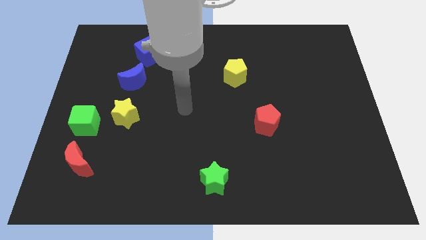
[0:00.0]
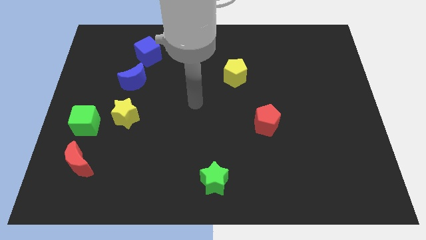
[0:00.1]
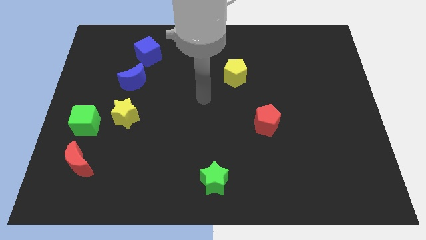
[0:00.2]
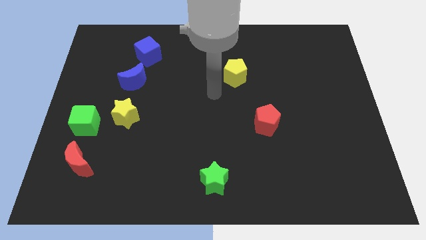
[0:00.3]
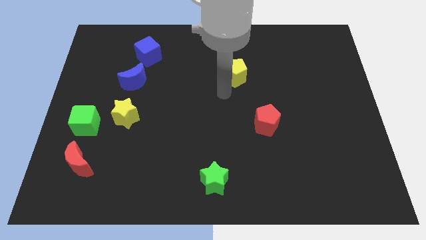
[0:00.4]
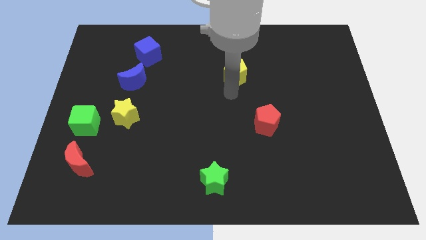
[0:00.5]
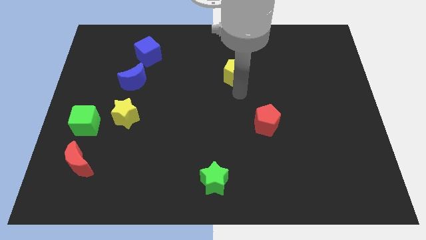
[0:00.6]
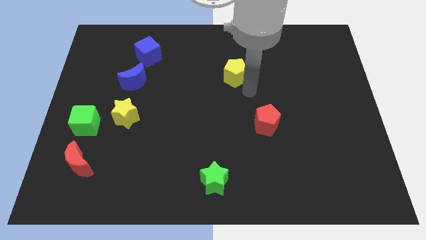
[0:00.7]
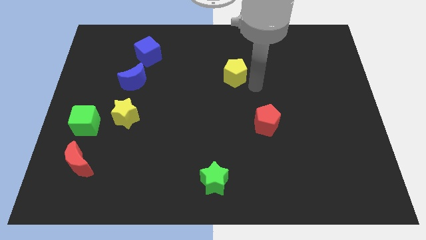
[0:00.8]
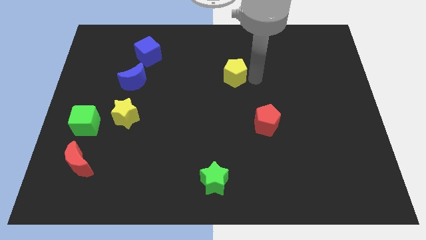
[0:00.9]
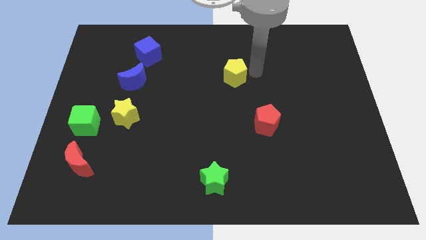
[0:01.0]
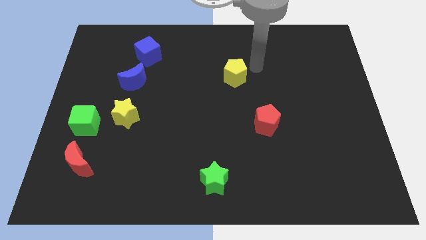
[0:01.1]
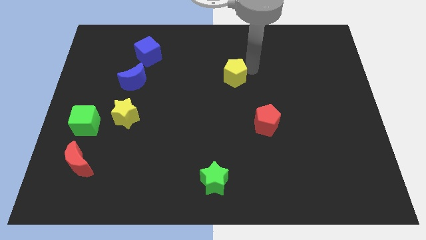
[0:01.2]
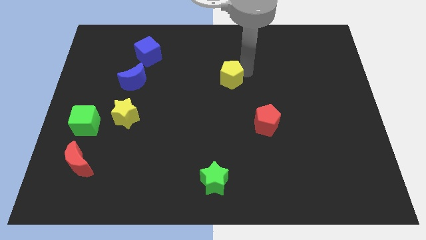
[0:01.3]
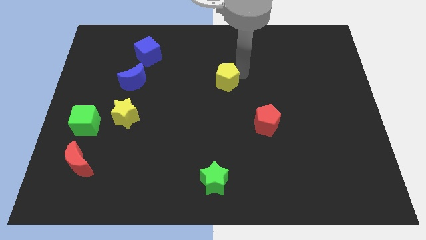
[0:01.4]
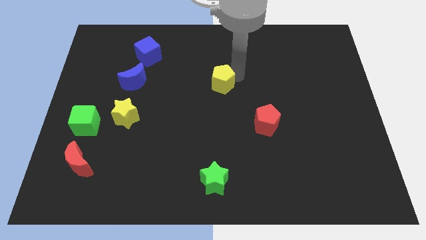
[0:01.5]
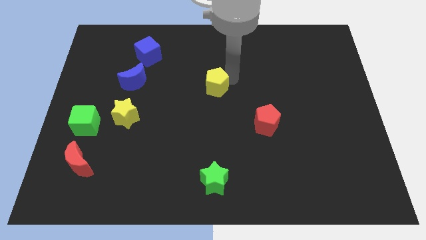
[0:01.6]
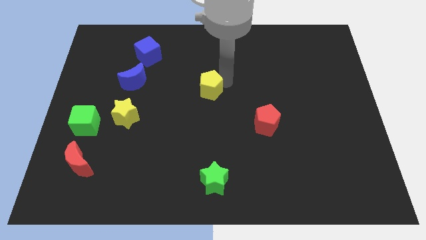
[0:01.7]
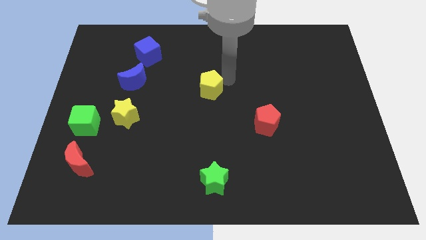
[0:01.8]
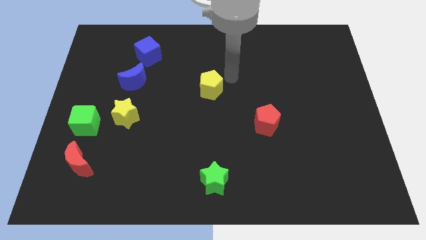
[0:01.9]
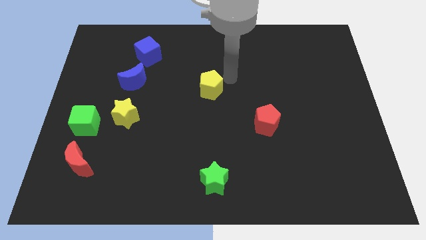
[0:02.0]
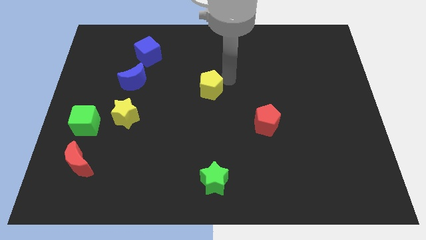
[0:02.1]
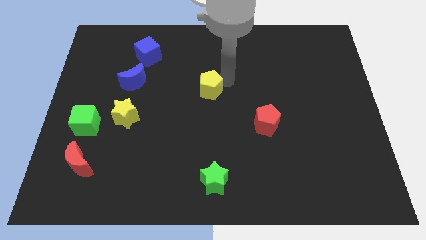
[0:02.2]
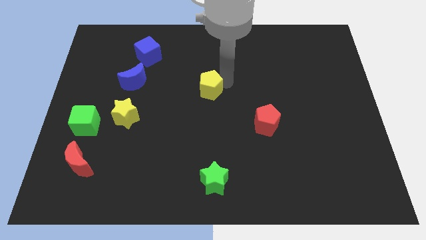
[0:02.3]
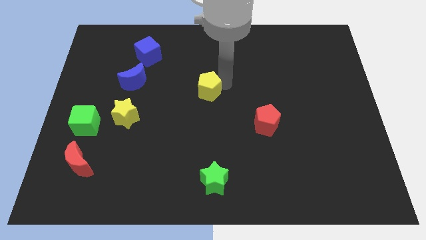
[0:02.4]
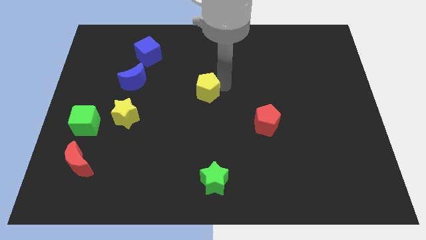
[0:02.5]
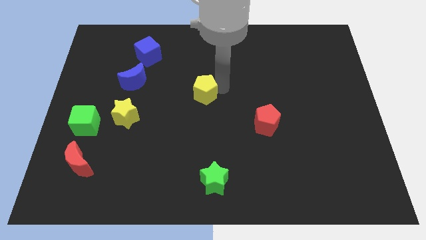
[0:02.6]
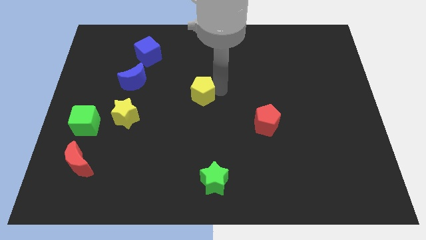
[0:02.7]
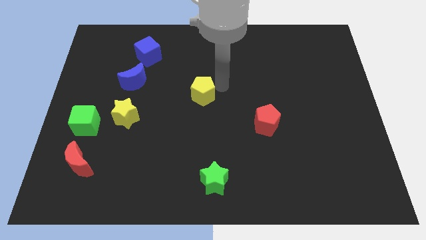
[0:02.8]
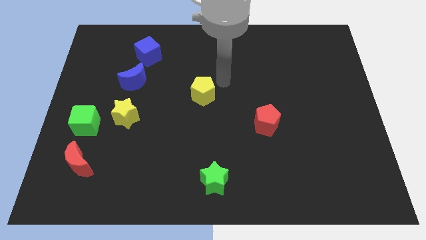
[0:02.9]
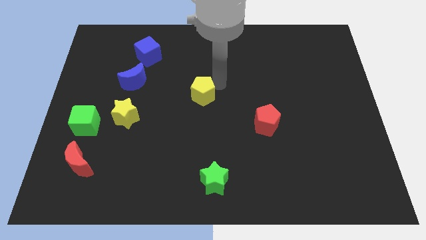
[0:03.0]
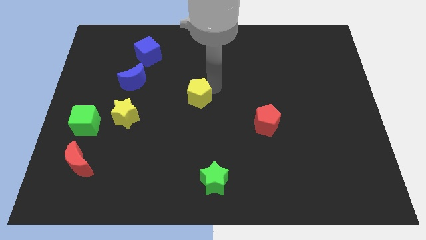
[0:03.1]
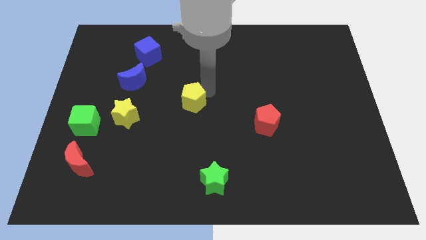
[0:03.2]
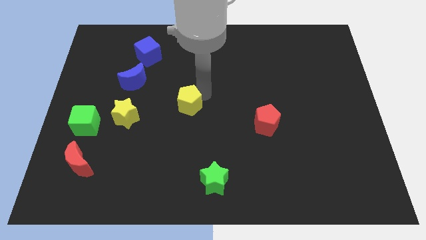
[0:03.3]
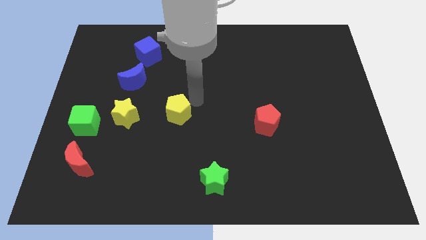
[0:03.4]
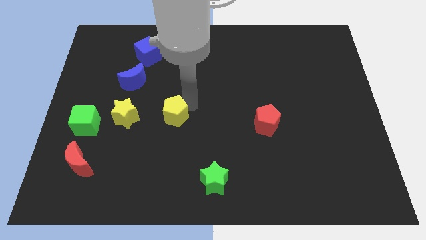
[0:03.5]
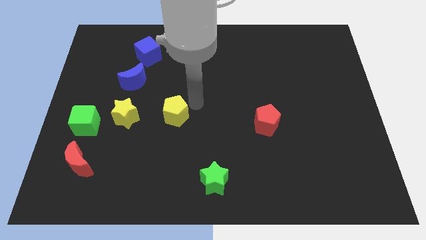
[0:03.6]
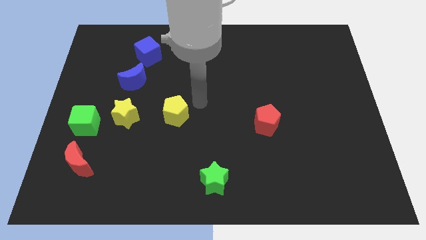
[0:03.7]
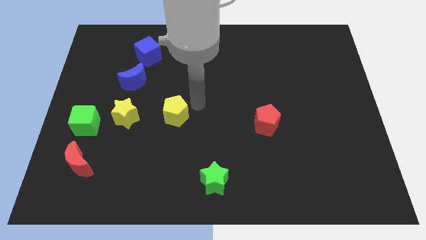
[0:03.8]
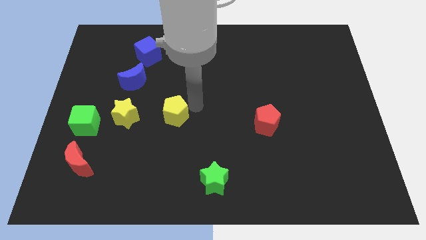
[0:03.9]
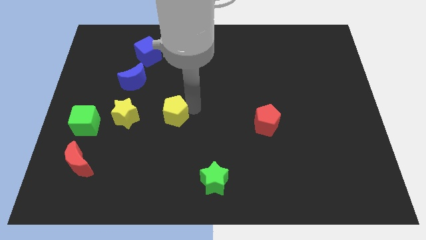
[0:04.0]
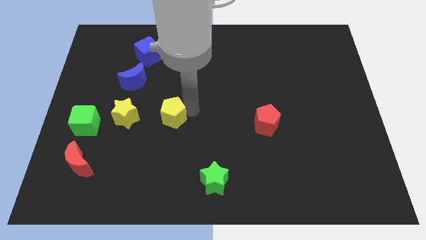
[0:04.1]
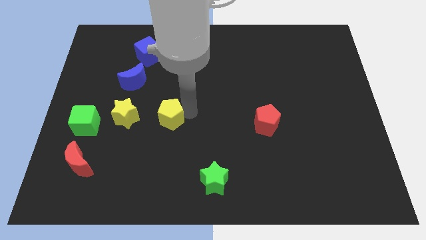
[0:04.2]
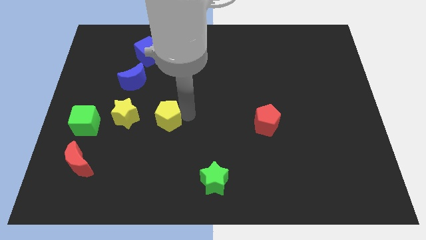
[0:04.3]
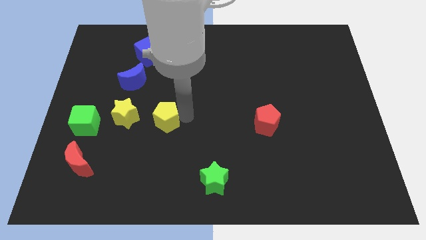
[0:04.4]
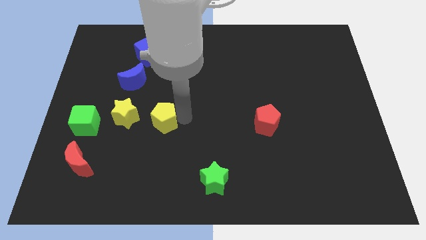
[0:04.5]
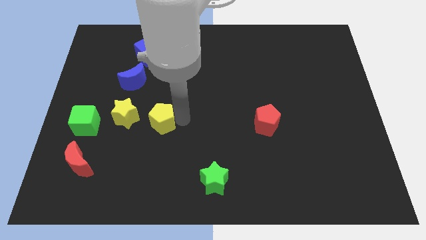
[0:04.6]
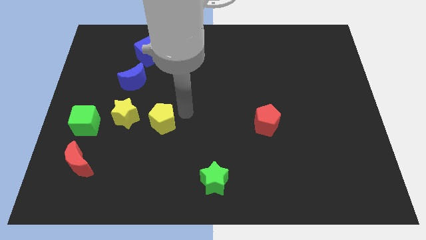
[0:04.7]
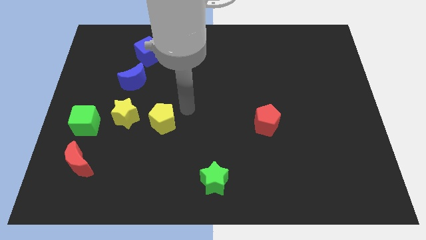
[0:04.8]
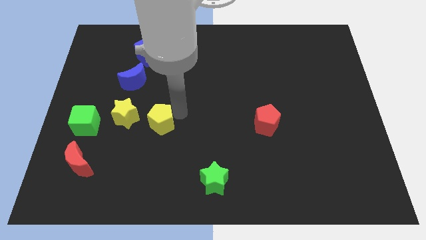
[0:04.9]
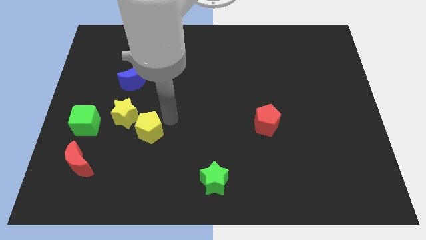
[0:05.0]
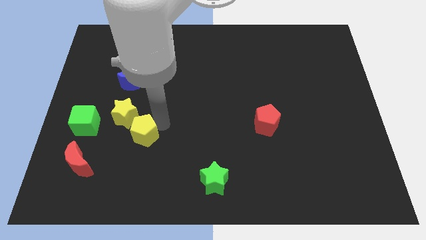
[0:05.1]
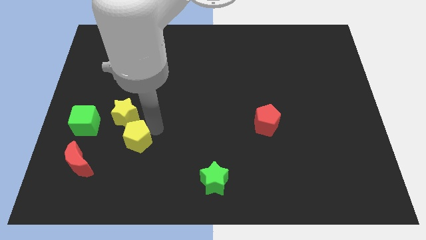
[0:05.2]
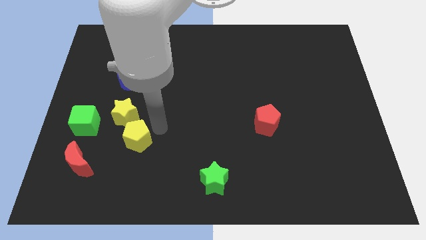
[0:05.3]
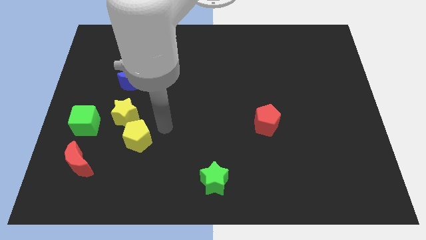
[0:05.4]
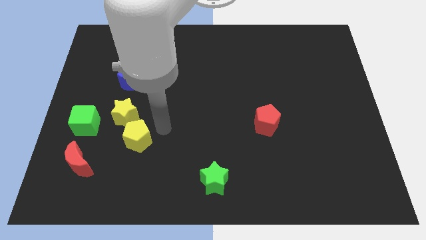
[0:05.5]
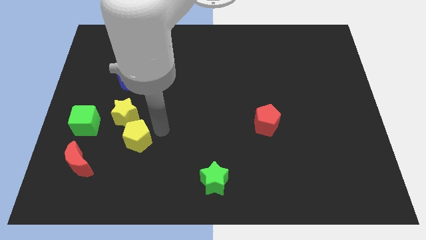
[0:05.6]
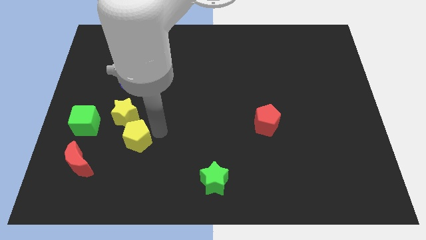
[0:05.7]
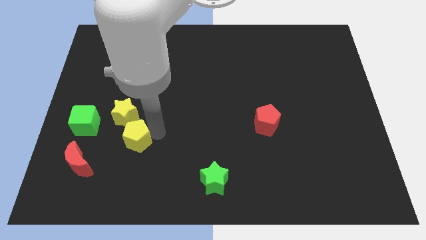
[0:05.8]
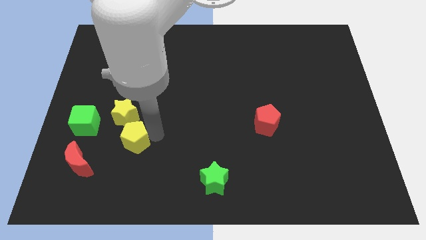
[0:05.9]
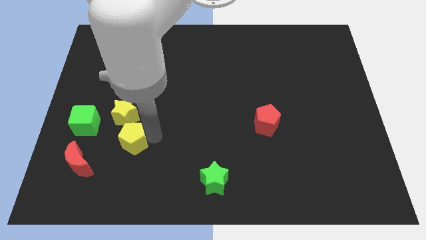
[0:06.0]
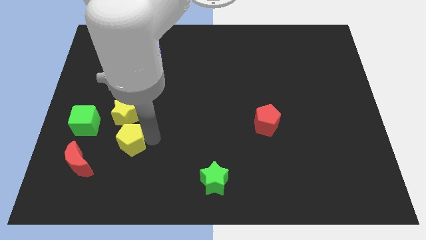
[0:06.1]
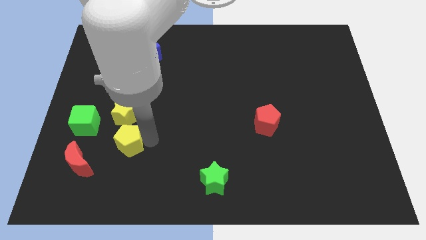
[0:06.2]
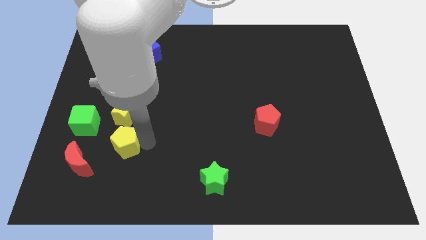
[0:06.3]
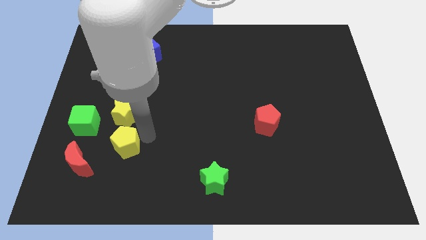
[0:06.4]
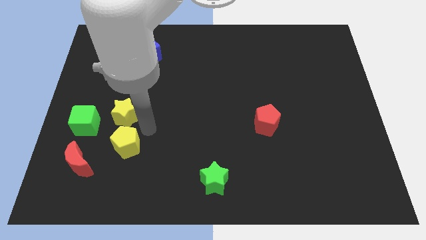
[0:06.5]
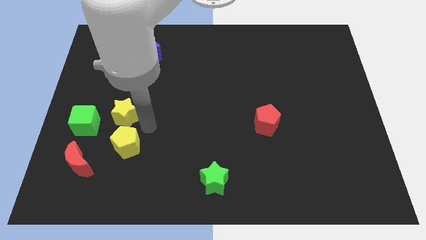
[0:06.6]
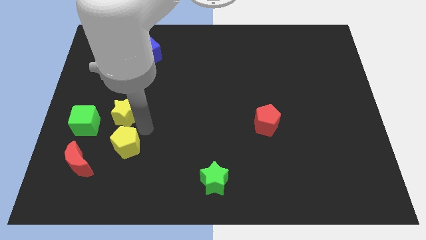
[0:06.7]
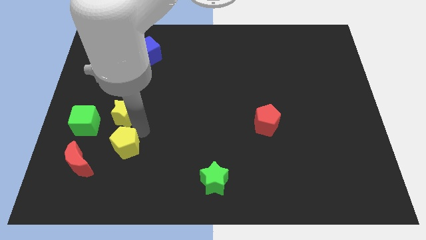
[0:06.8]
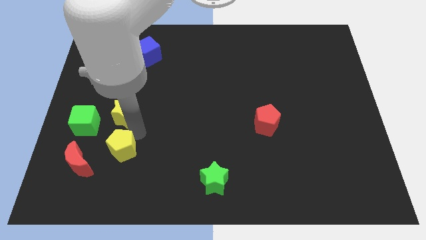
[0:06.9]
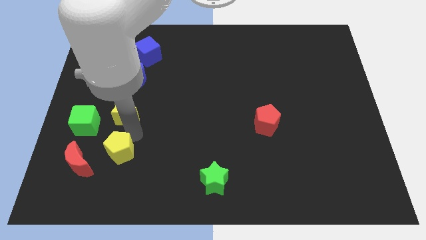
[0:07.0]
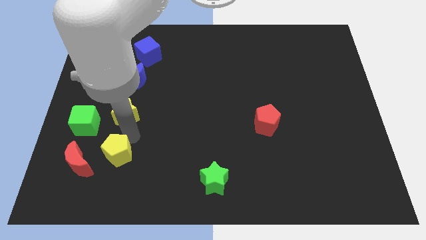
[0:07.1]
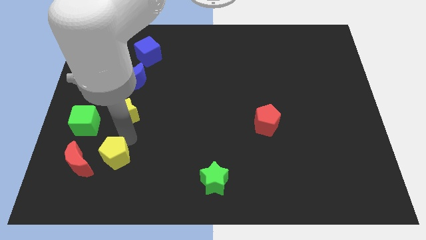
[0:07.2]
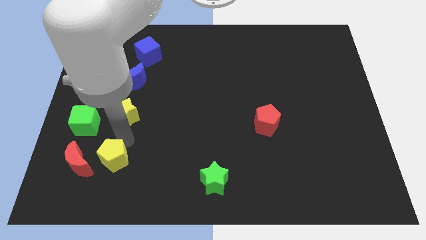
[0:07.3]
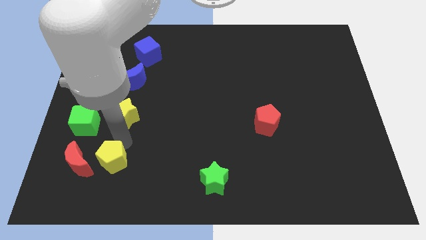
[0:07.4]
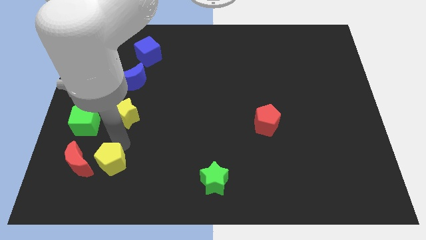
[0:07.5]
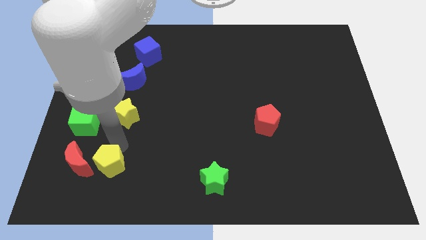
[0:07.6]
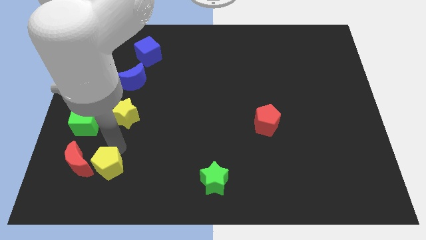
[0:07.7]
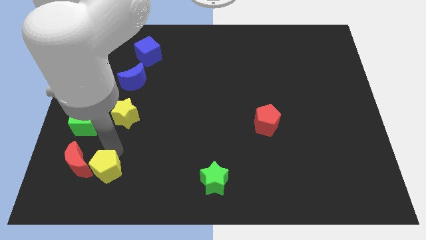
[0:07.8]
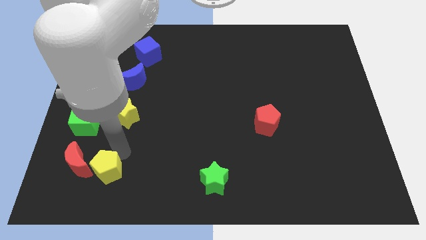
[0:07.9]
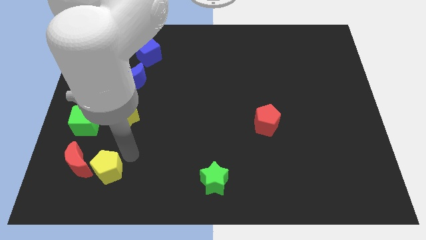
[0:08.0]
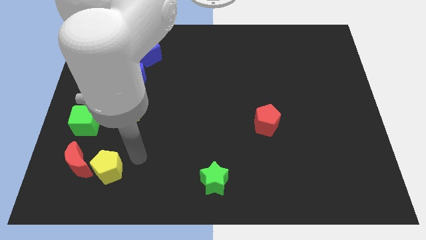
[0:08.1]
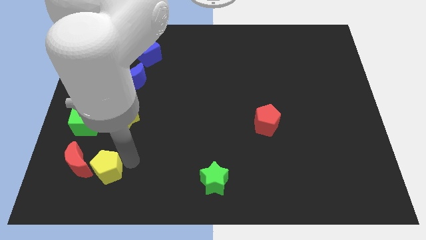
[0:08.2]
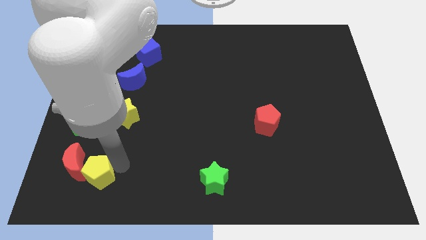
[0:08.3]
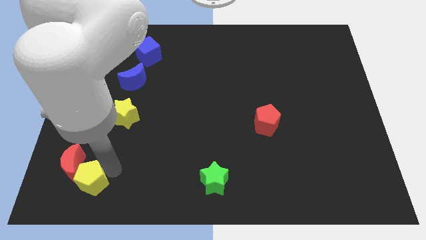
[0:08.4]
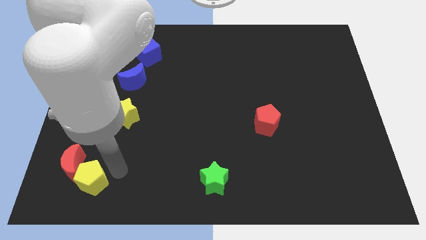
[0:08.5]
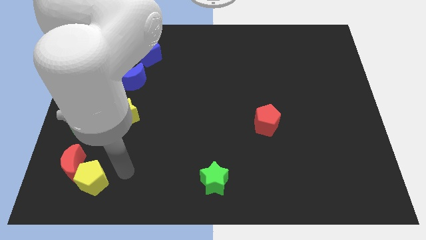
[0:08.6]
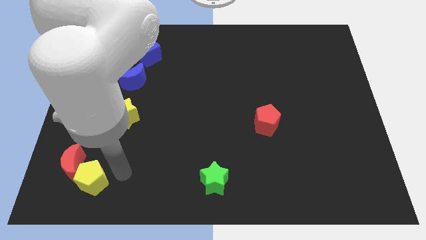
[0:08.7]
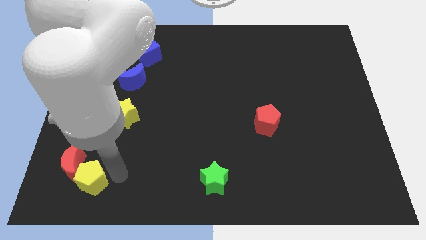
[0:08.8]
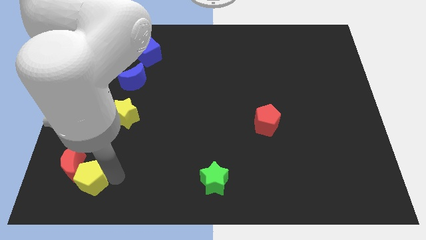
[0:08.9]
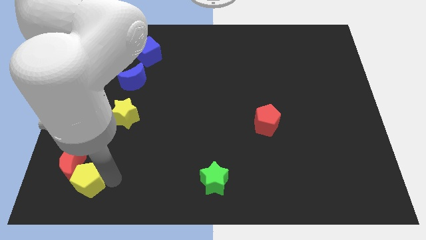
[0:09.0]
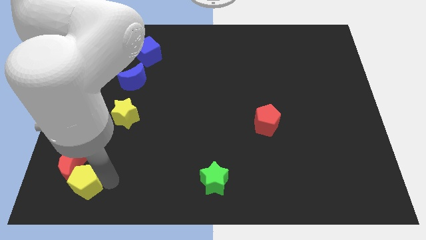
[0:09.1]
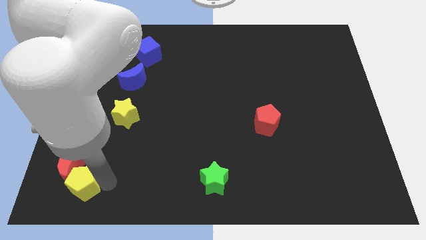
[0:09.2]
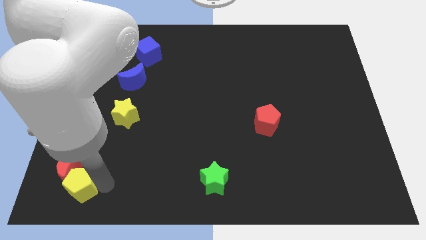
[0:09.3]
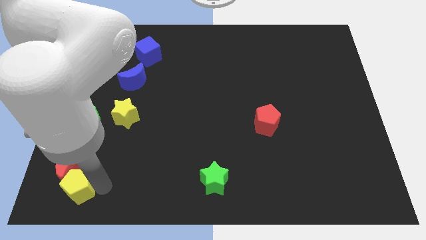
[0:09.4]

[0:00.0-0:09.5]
put the yellow pentagon to the bottom left corner
